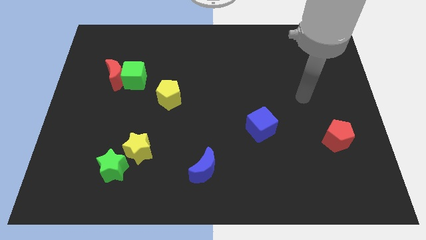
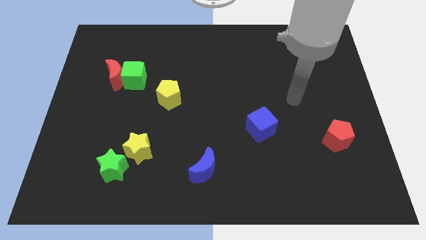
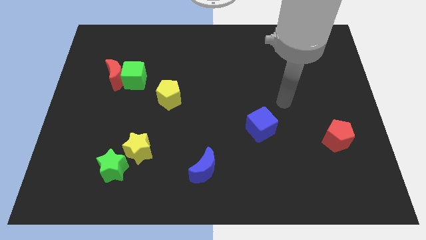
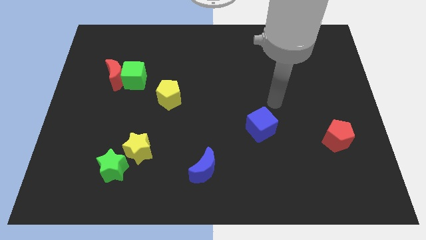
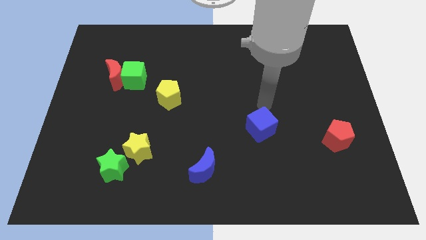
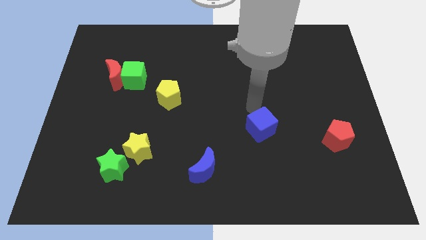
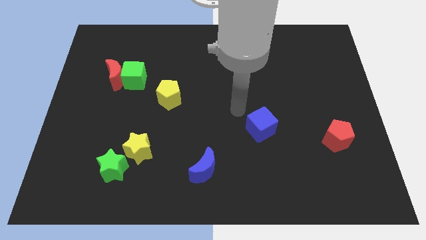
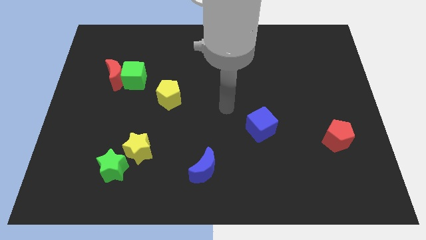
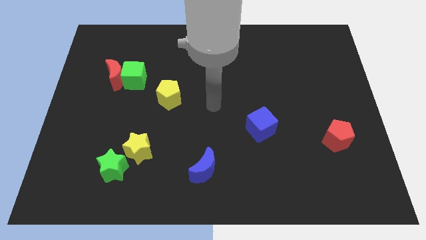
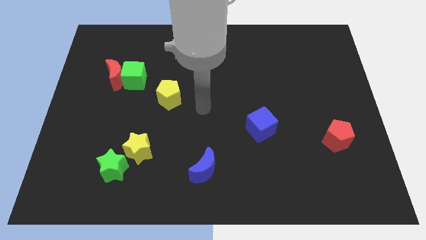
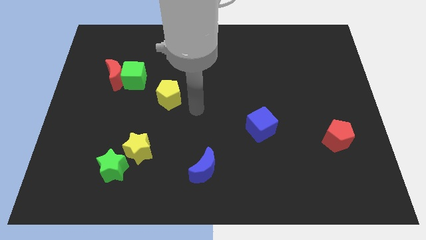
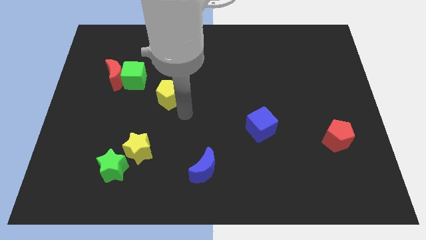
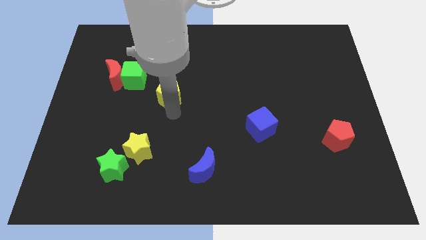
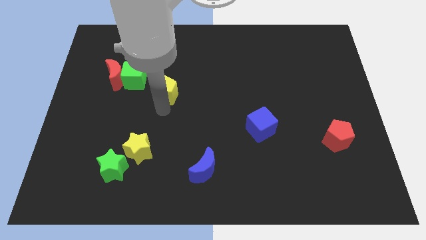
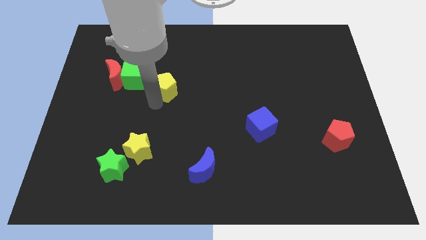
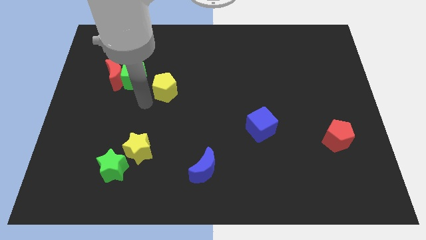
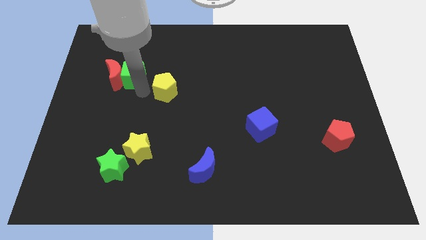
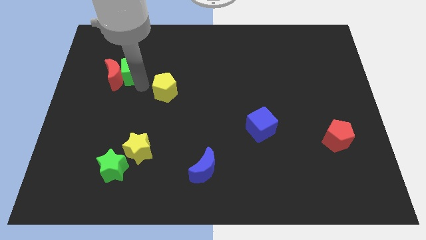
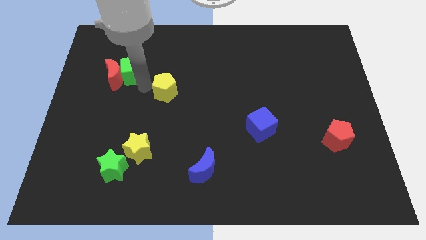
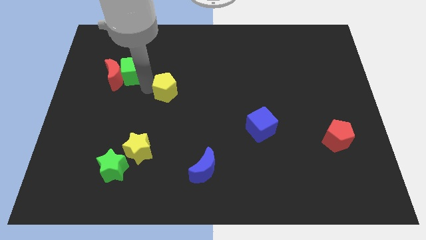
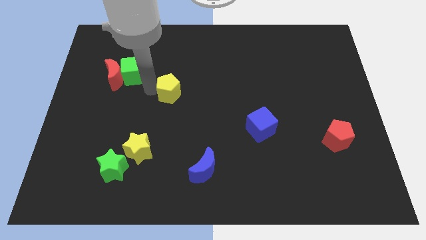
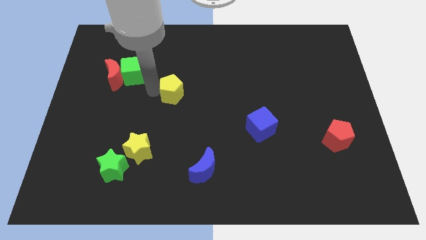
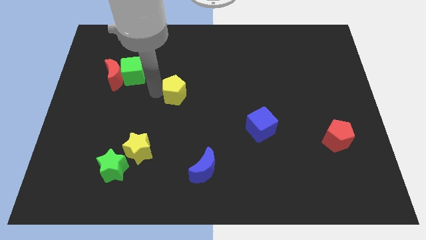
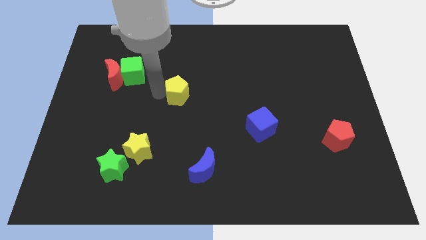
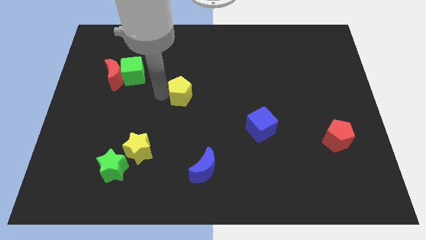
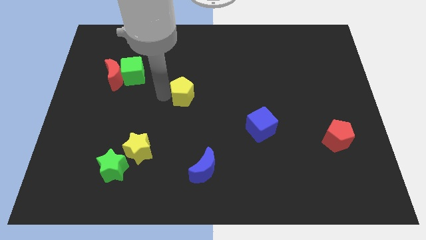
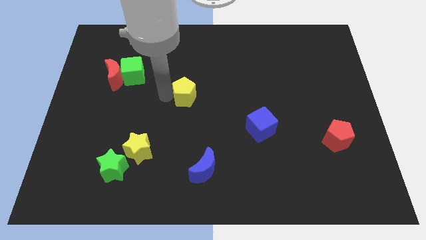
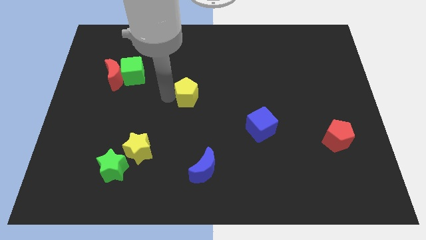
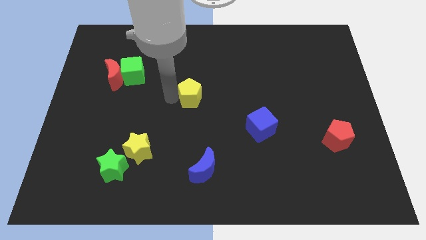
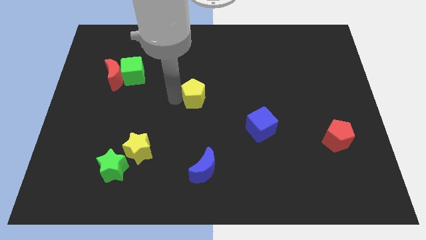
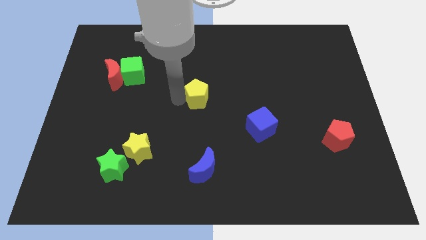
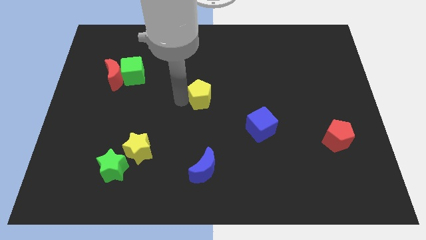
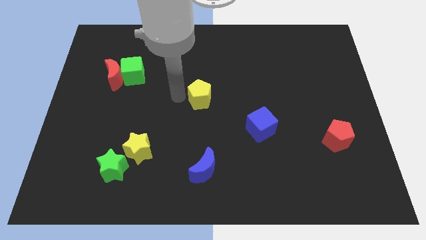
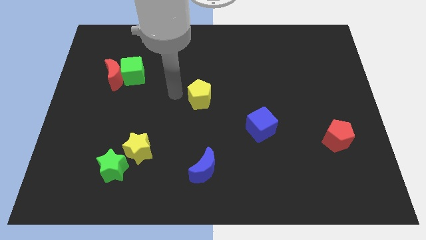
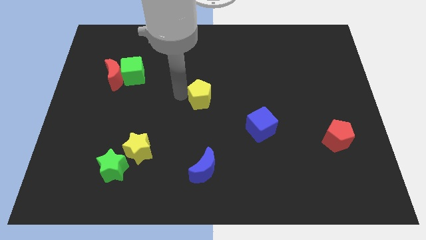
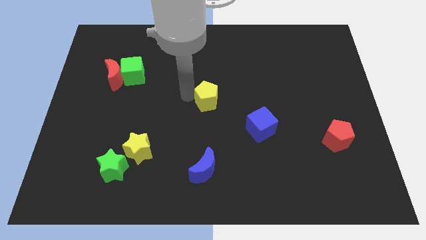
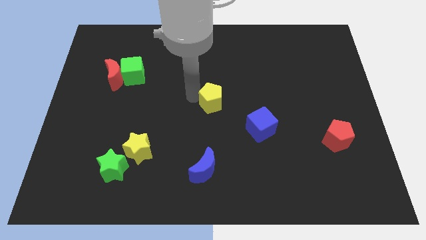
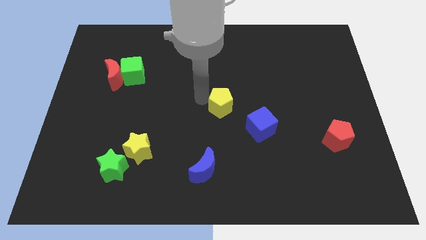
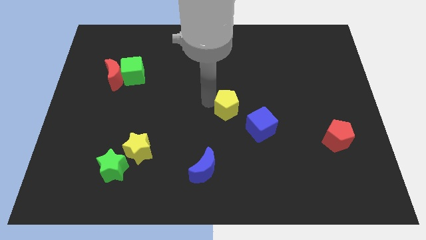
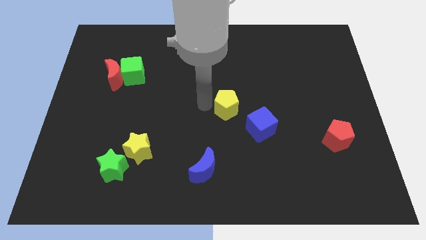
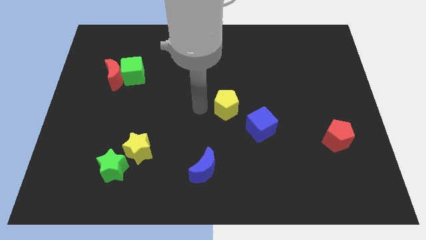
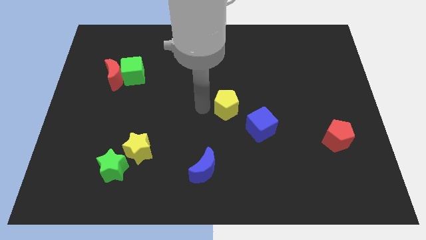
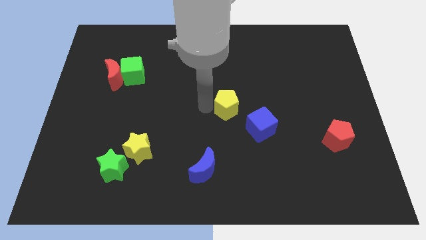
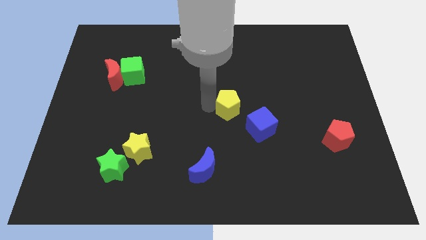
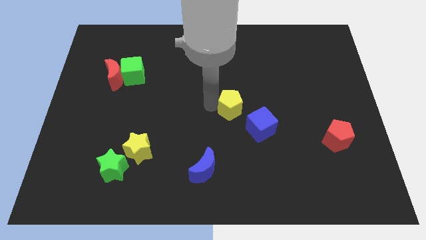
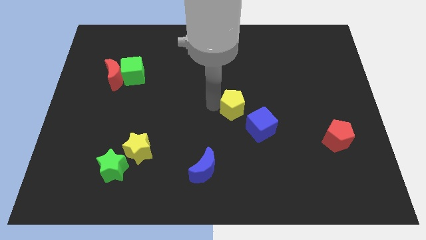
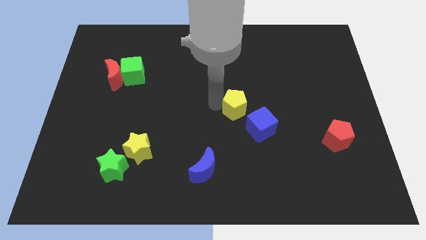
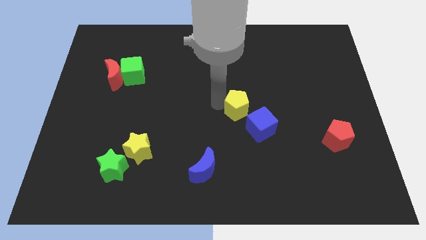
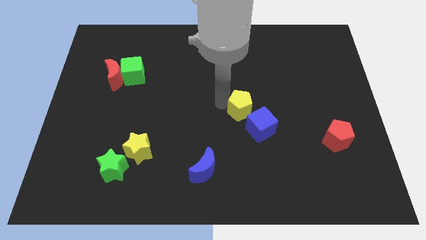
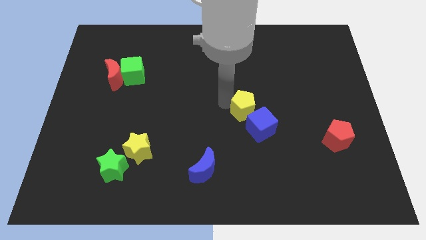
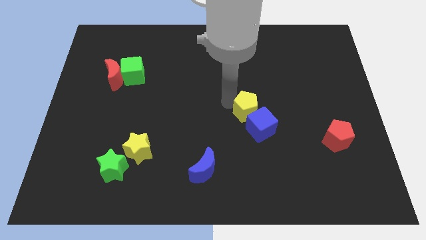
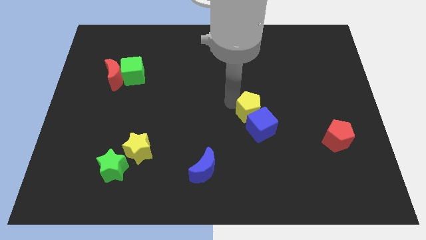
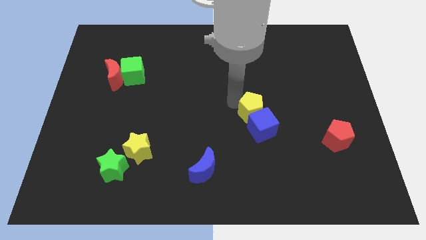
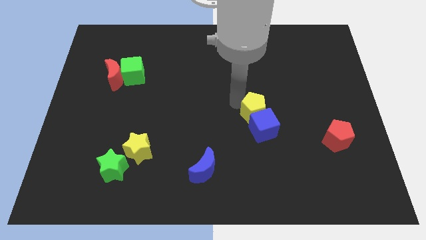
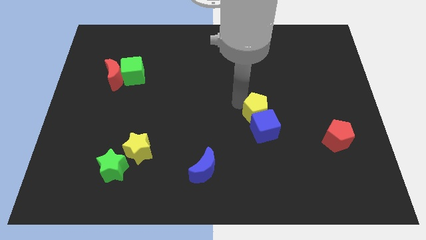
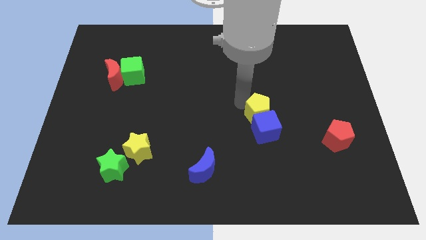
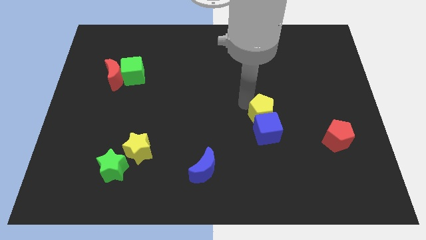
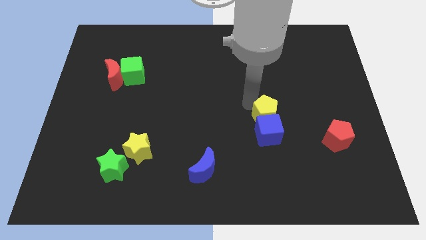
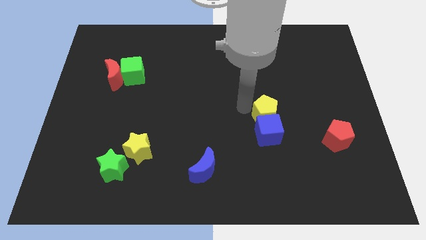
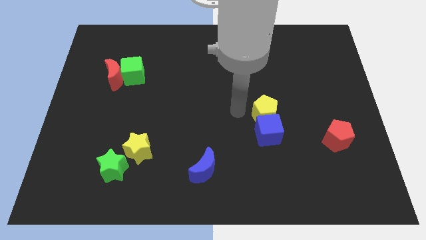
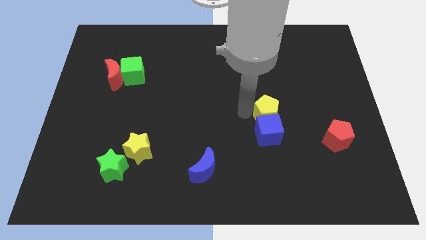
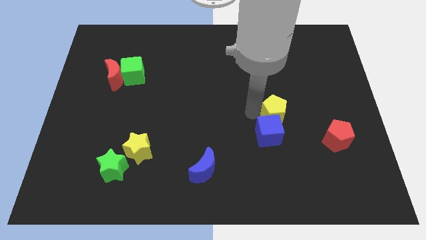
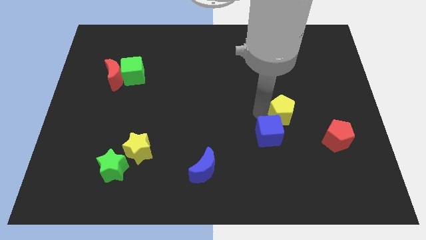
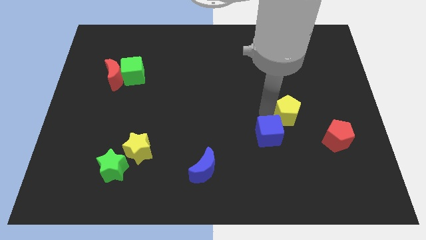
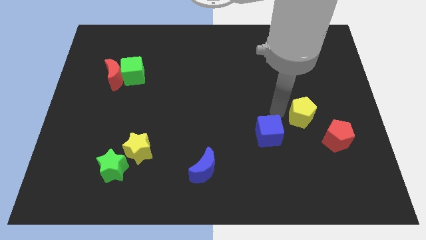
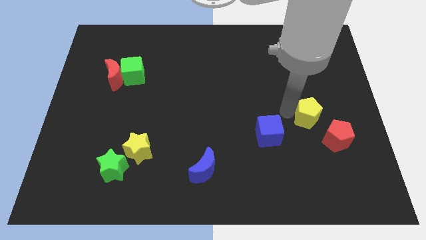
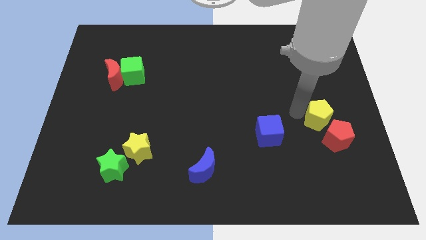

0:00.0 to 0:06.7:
move the yellow pentagon close to the red pentagon

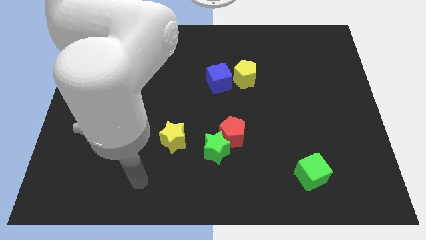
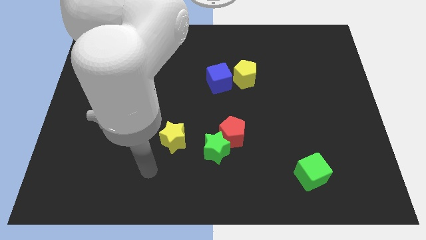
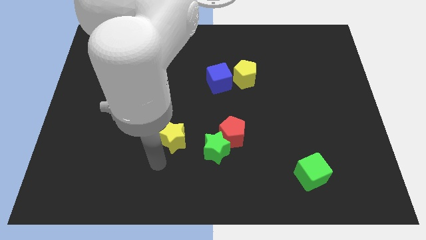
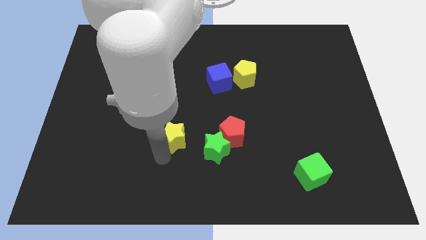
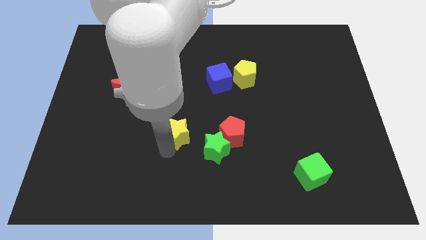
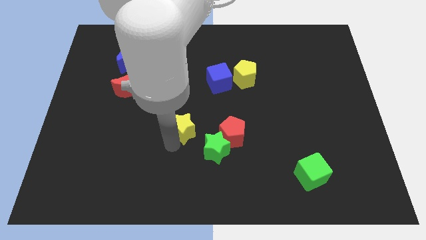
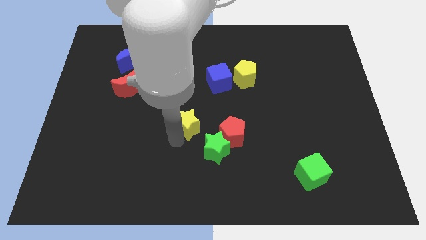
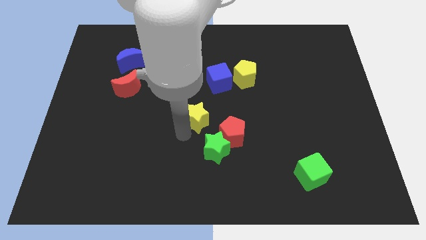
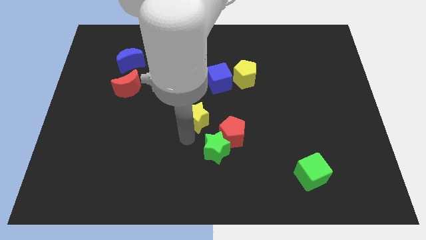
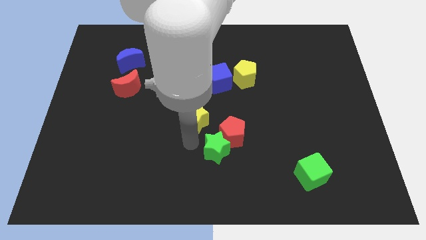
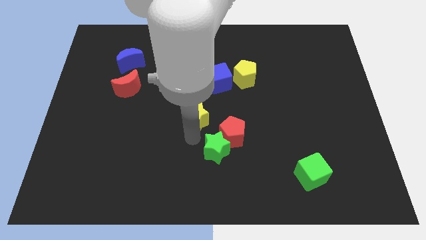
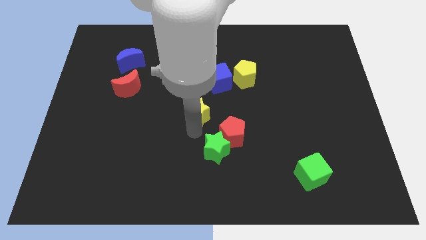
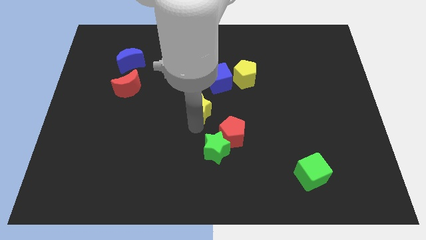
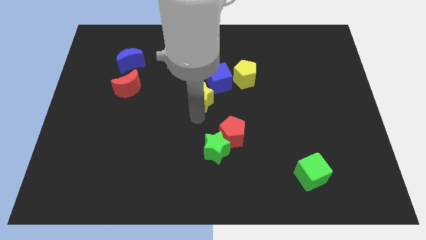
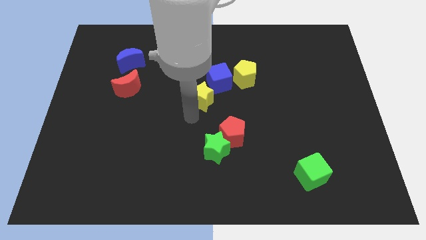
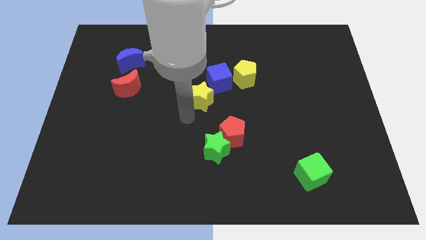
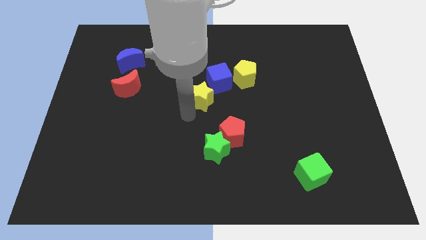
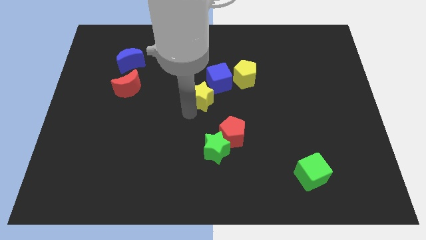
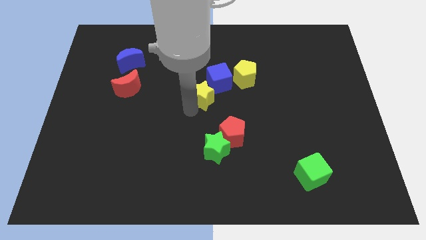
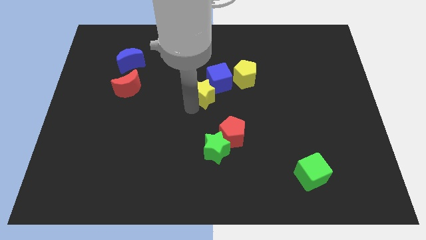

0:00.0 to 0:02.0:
push the yellow star towards the blue cube
